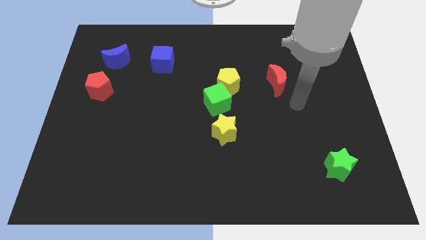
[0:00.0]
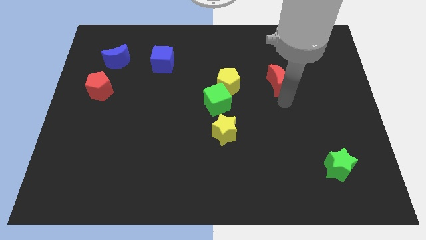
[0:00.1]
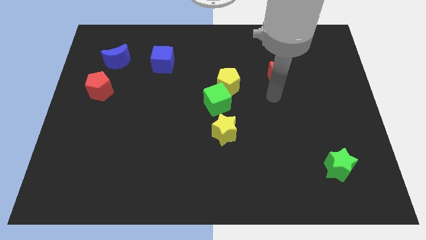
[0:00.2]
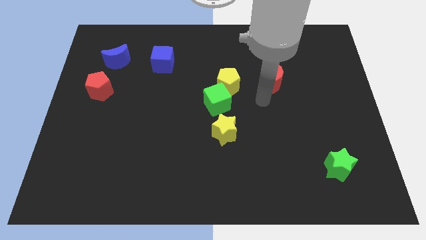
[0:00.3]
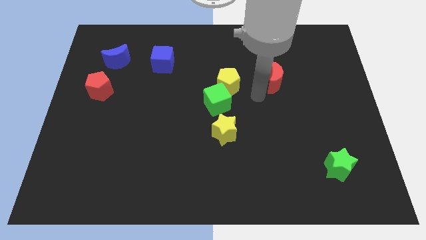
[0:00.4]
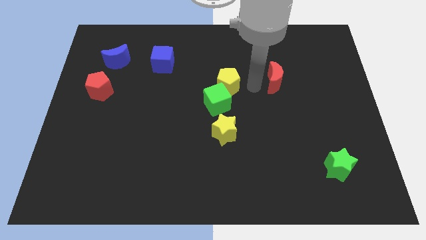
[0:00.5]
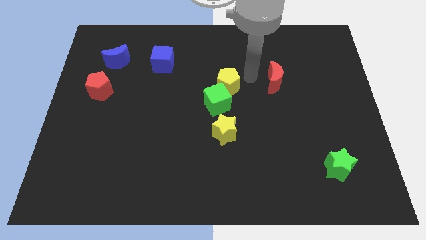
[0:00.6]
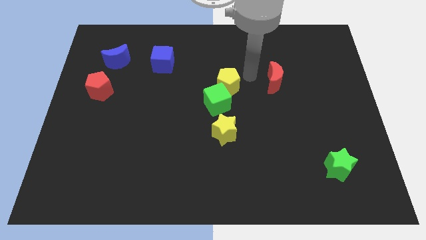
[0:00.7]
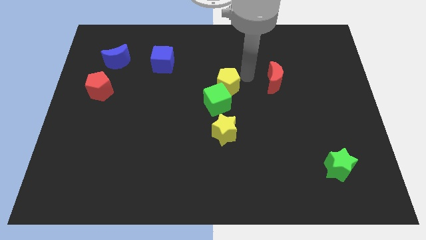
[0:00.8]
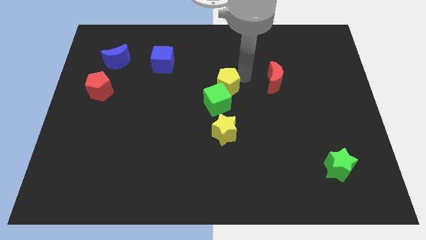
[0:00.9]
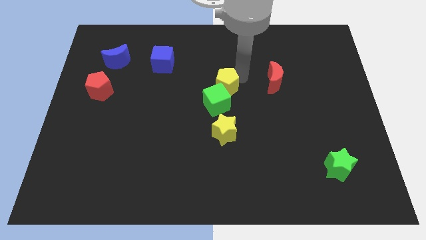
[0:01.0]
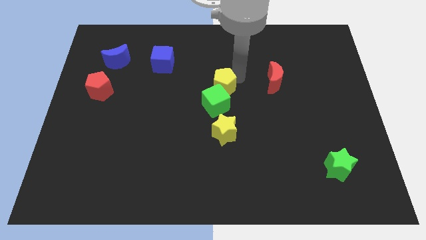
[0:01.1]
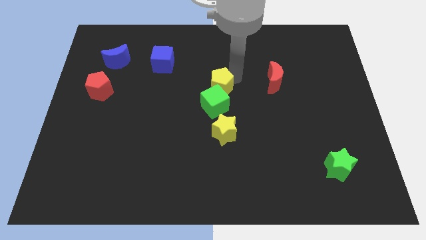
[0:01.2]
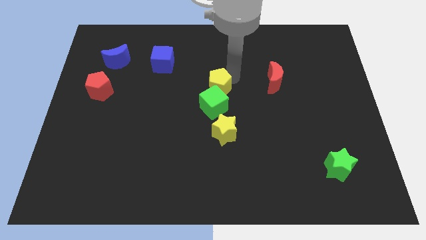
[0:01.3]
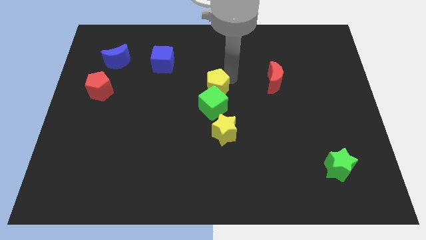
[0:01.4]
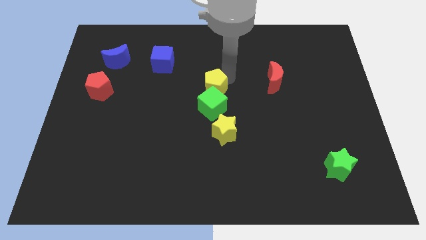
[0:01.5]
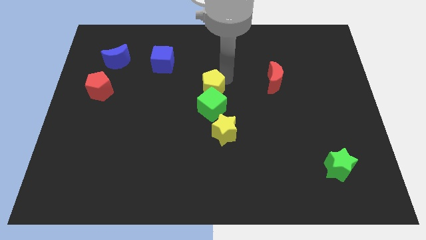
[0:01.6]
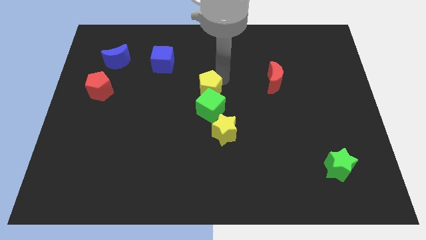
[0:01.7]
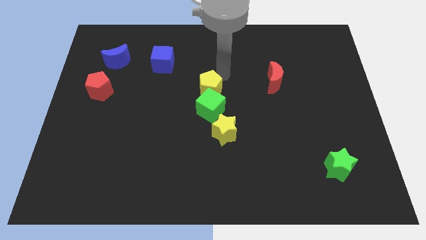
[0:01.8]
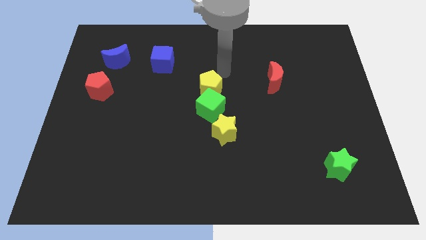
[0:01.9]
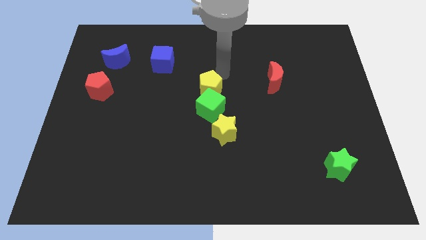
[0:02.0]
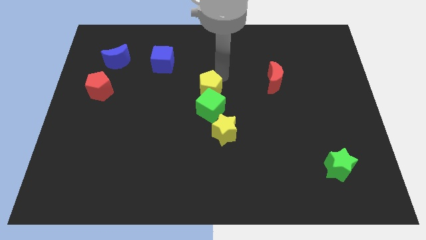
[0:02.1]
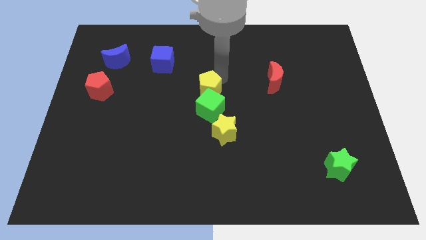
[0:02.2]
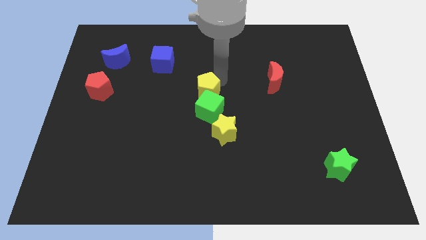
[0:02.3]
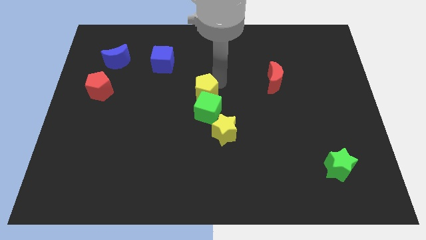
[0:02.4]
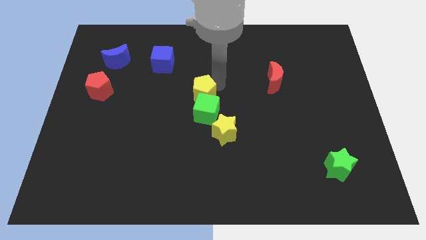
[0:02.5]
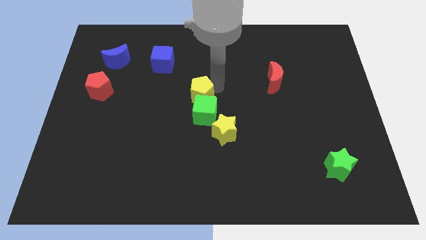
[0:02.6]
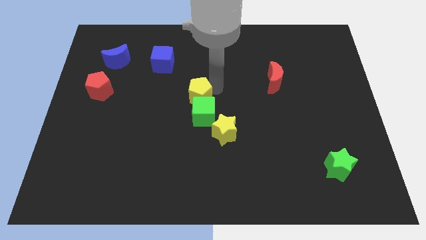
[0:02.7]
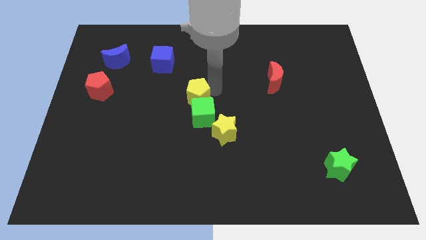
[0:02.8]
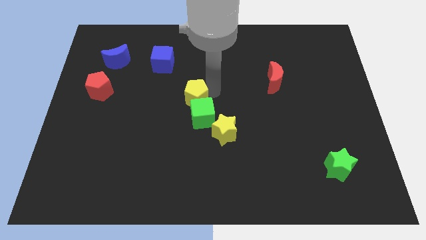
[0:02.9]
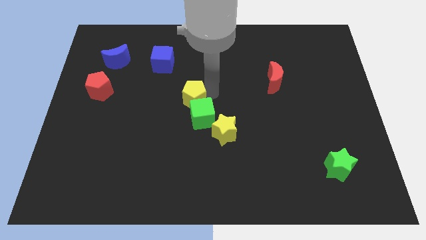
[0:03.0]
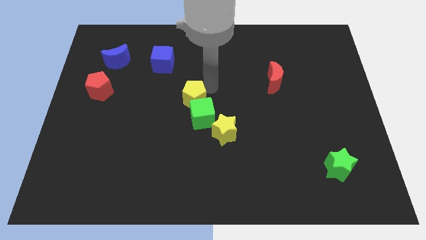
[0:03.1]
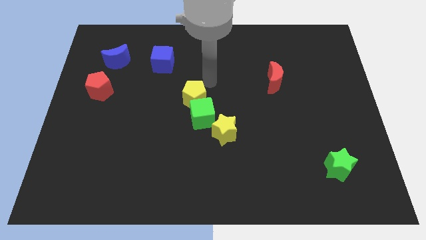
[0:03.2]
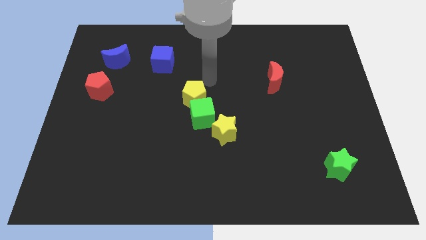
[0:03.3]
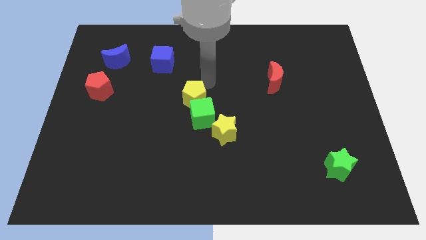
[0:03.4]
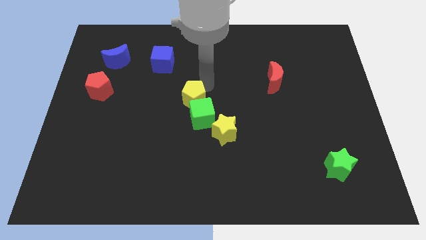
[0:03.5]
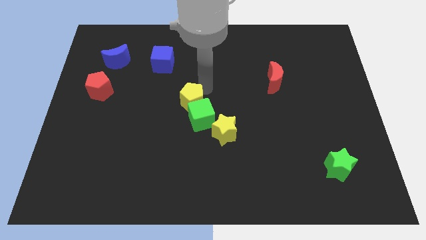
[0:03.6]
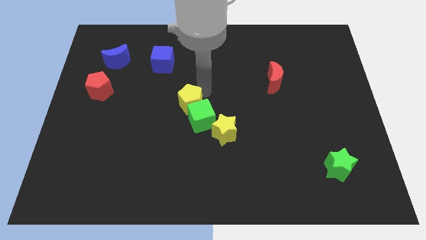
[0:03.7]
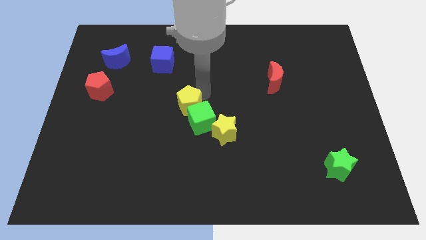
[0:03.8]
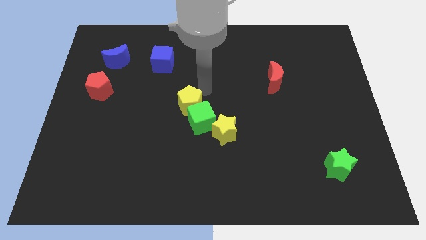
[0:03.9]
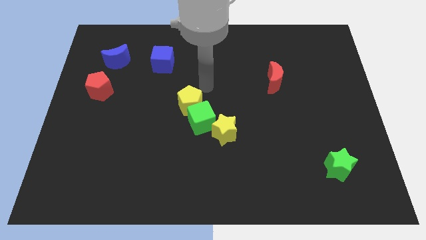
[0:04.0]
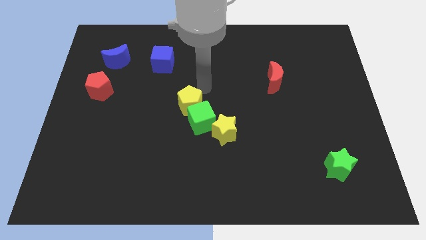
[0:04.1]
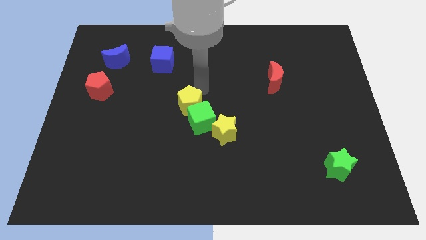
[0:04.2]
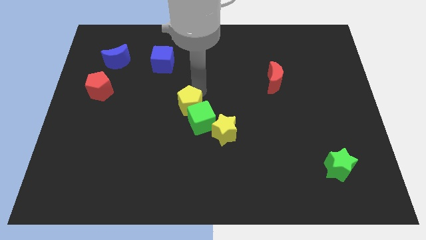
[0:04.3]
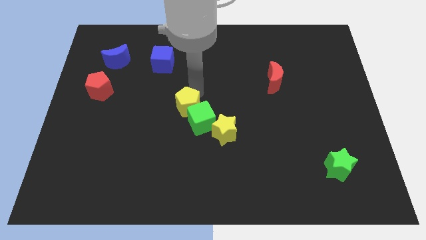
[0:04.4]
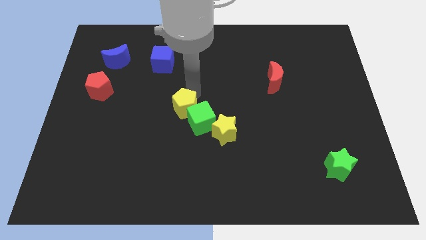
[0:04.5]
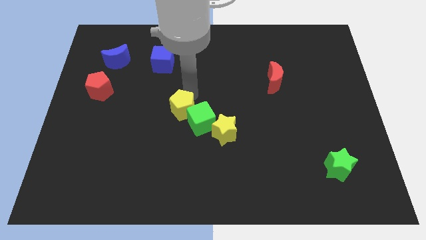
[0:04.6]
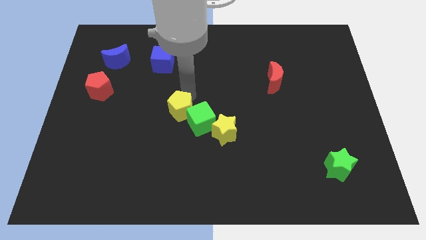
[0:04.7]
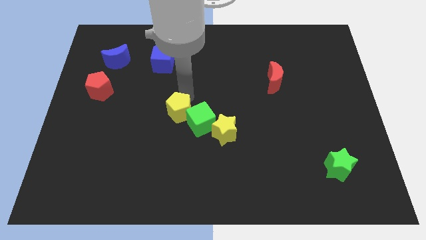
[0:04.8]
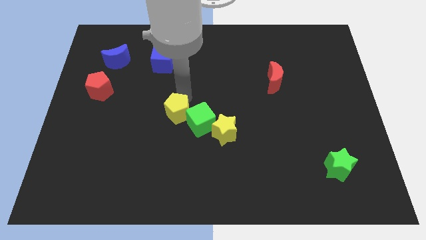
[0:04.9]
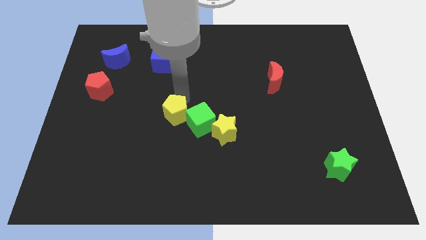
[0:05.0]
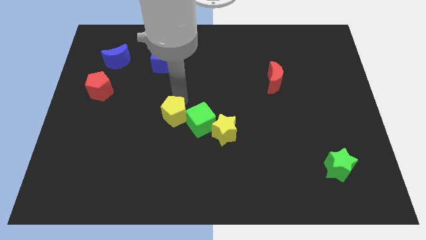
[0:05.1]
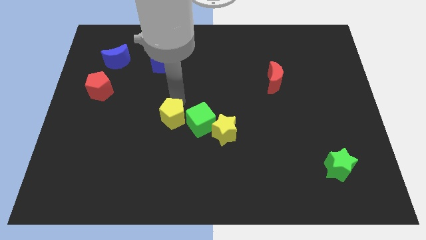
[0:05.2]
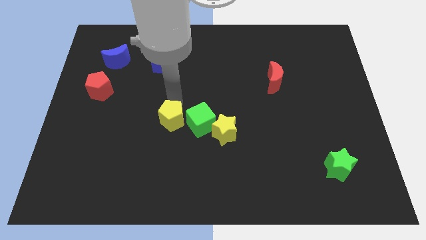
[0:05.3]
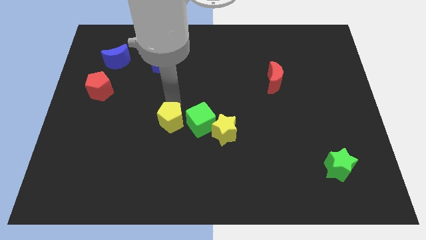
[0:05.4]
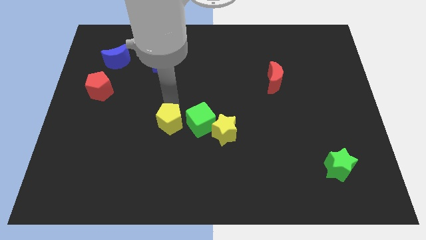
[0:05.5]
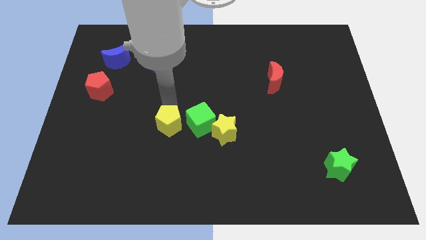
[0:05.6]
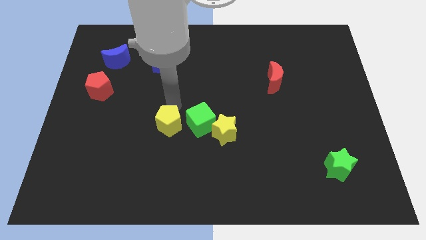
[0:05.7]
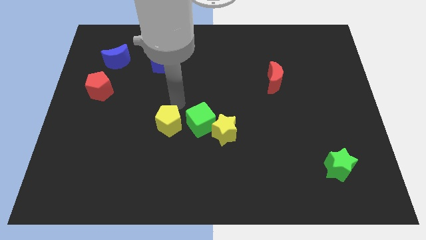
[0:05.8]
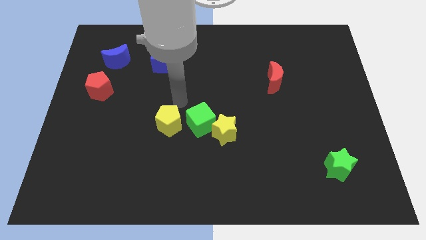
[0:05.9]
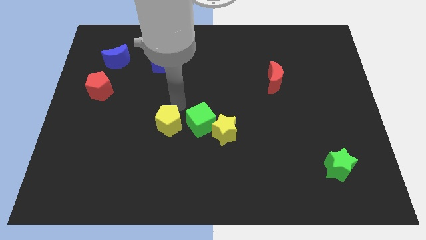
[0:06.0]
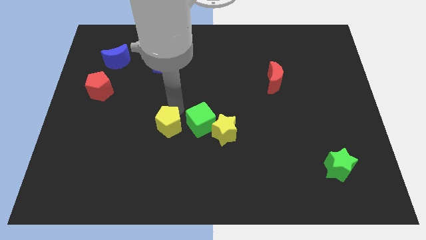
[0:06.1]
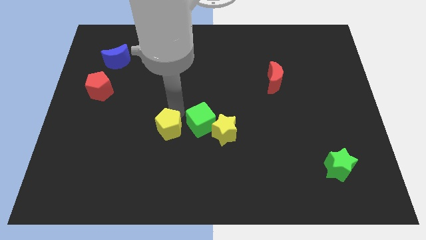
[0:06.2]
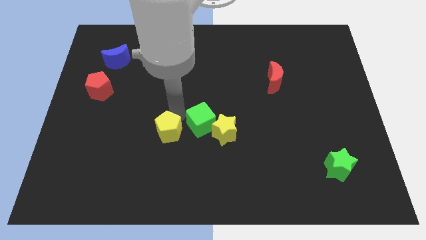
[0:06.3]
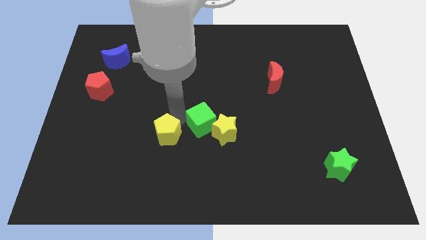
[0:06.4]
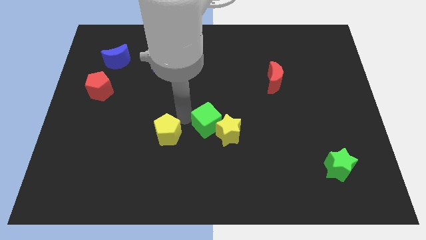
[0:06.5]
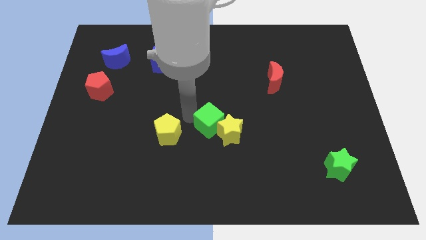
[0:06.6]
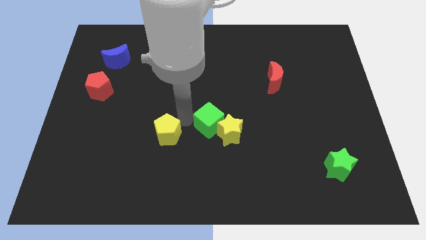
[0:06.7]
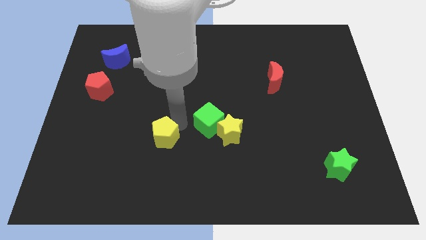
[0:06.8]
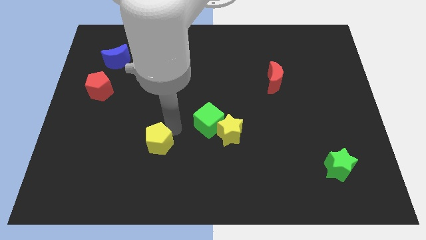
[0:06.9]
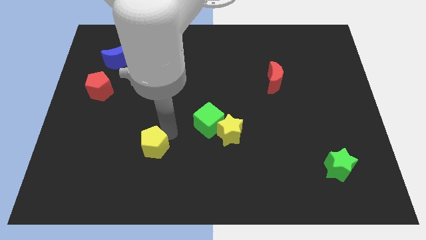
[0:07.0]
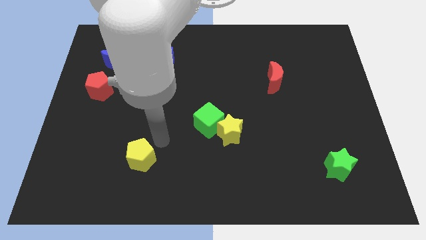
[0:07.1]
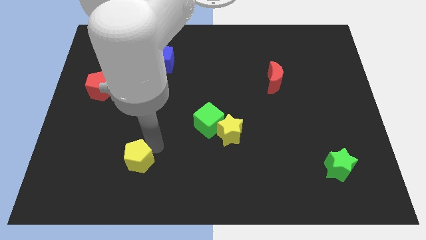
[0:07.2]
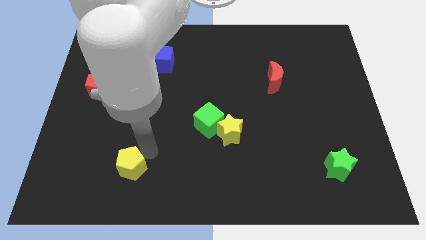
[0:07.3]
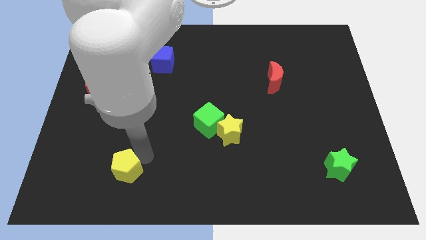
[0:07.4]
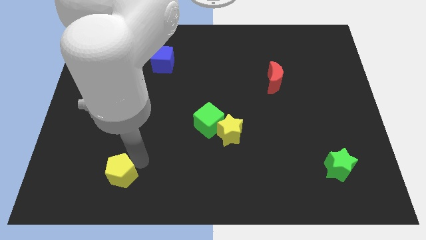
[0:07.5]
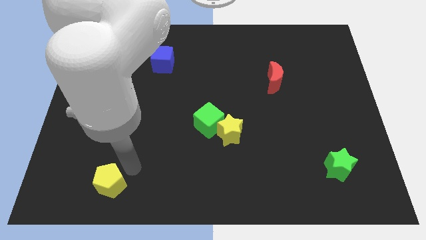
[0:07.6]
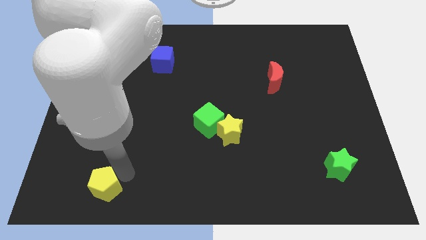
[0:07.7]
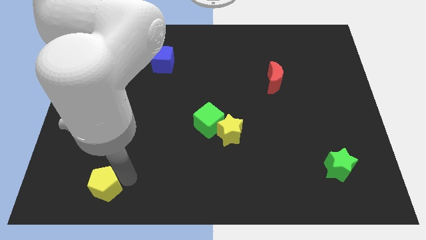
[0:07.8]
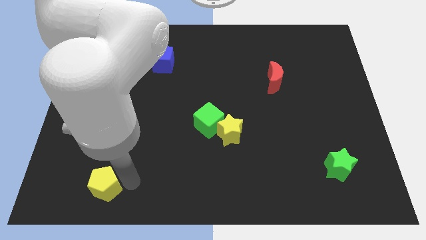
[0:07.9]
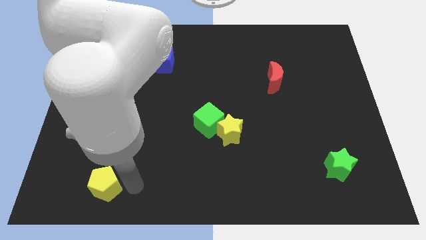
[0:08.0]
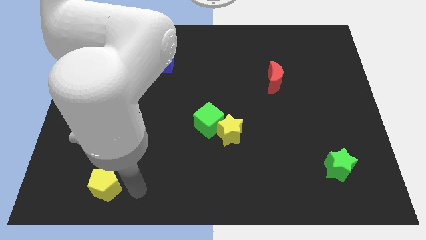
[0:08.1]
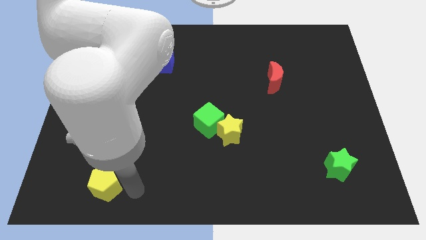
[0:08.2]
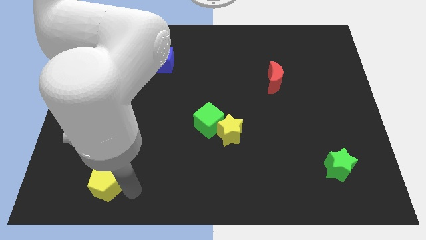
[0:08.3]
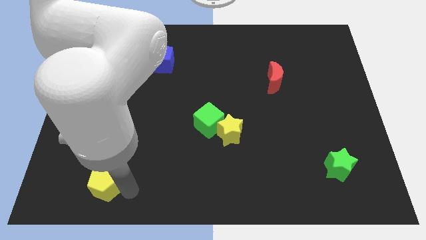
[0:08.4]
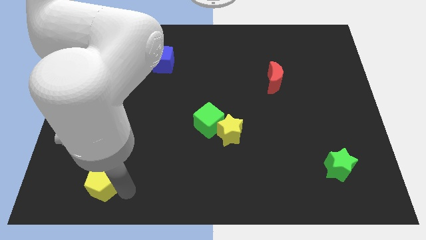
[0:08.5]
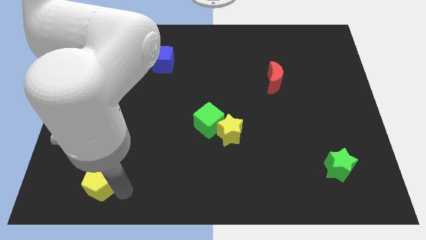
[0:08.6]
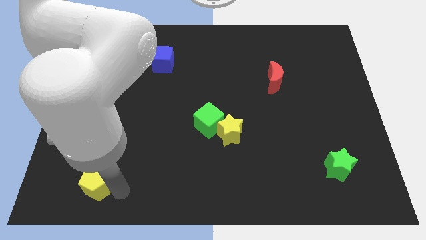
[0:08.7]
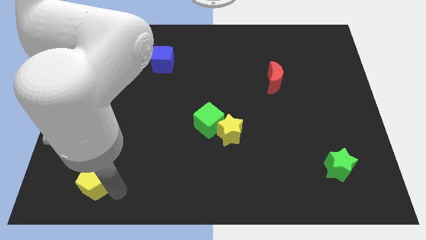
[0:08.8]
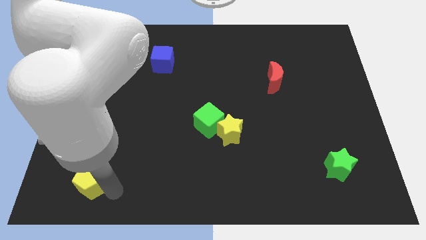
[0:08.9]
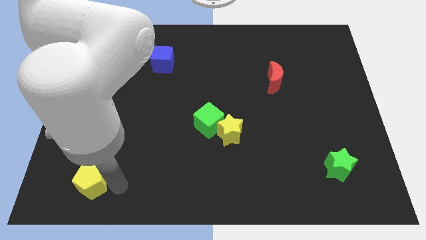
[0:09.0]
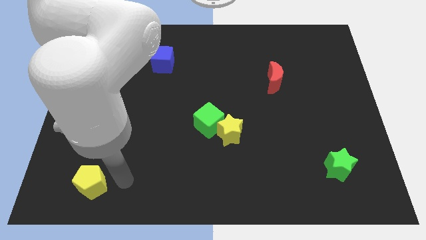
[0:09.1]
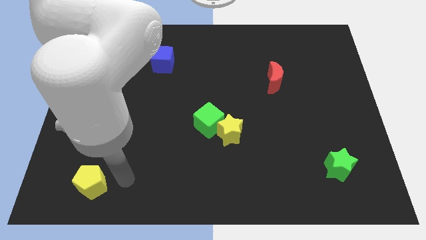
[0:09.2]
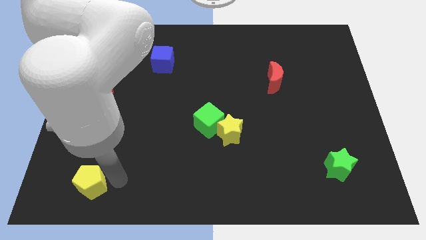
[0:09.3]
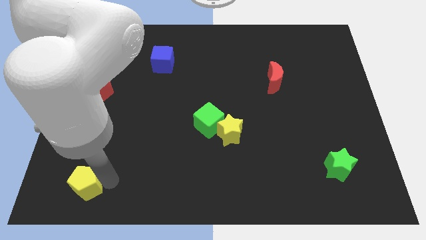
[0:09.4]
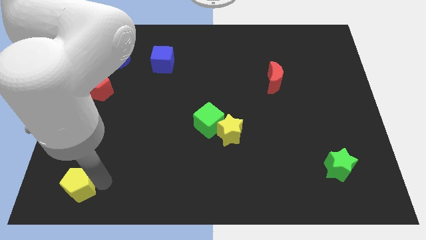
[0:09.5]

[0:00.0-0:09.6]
slide the yellow pentagon to the bottom left of the board
